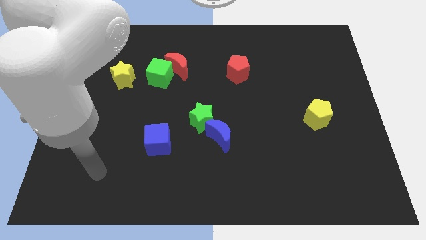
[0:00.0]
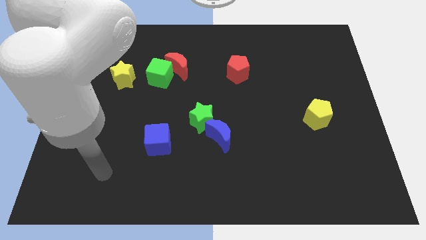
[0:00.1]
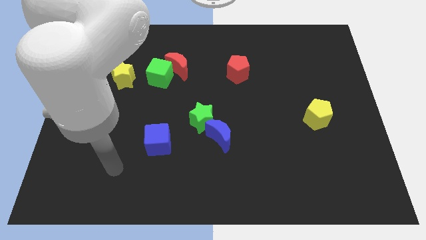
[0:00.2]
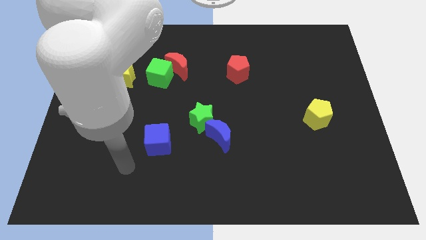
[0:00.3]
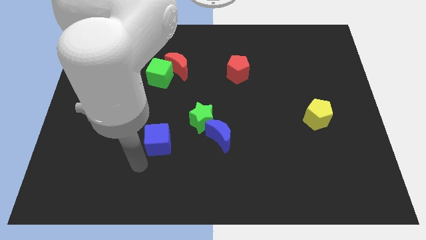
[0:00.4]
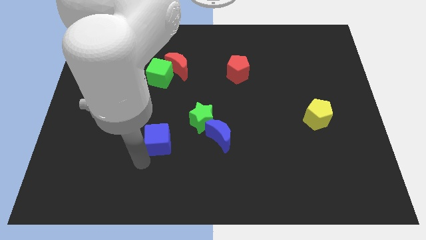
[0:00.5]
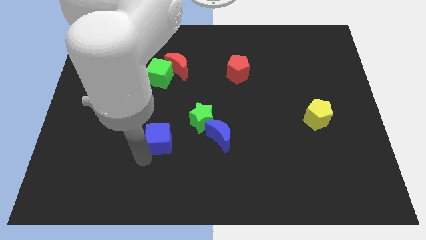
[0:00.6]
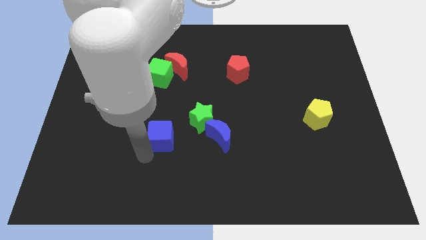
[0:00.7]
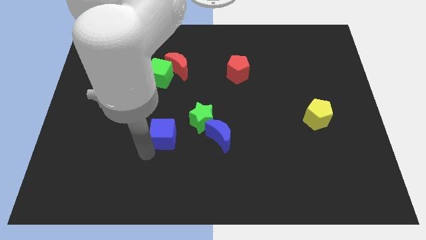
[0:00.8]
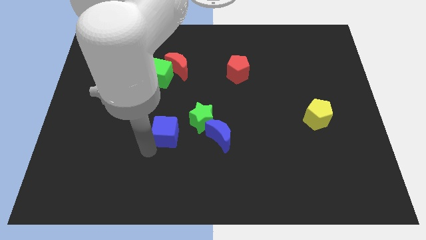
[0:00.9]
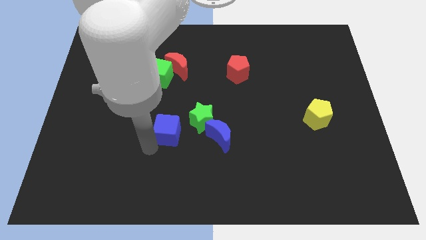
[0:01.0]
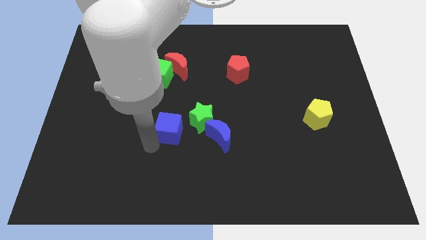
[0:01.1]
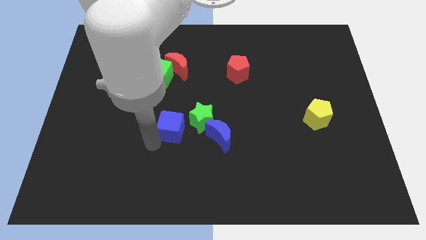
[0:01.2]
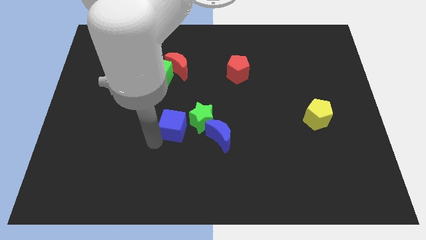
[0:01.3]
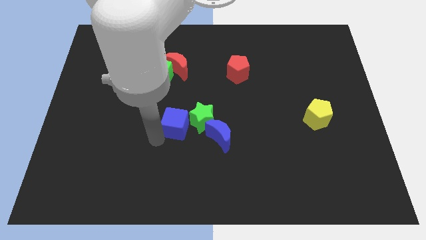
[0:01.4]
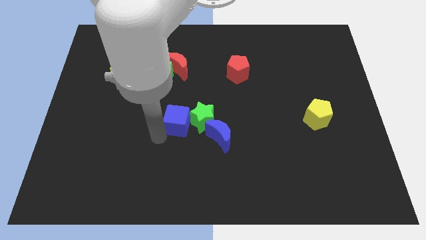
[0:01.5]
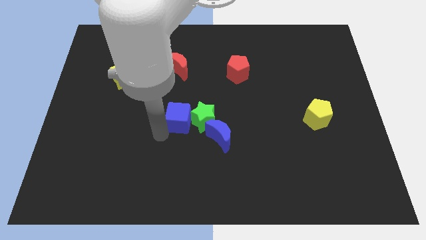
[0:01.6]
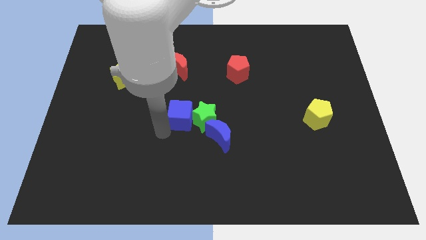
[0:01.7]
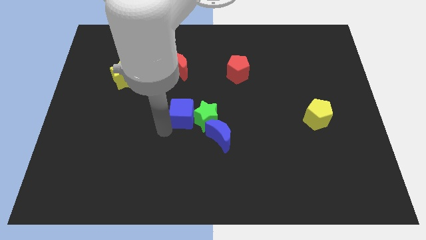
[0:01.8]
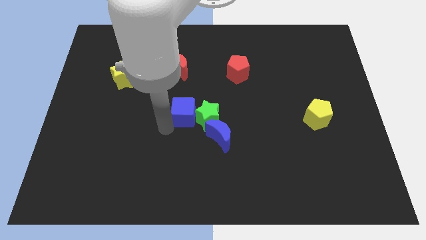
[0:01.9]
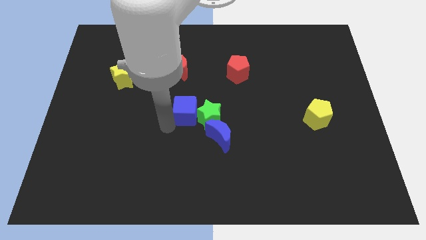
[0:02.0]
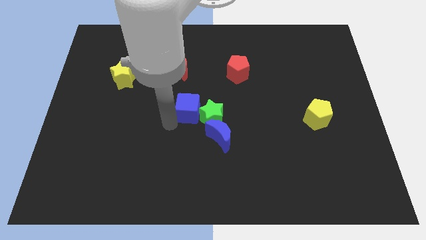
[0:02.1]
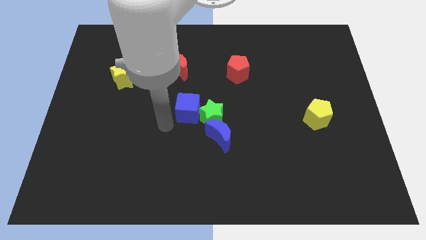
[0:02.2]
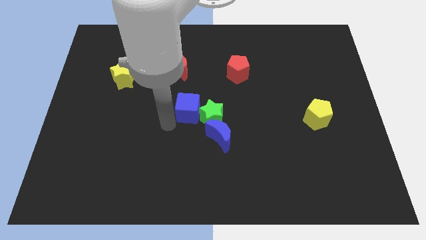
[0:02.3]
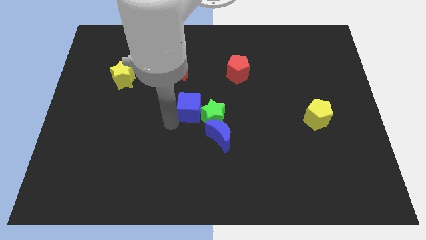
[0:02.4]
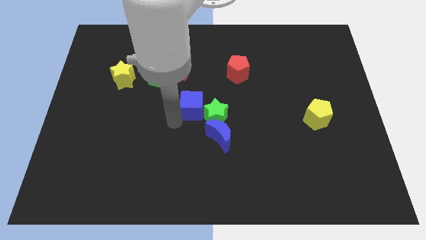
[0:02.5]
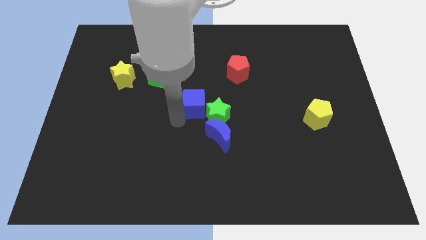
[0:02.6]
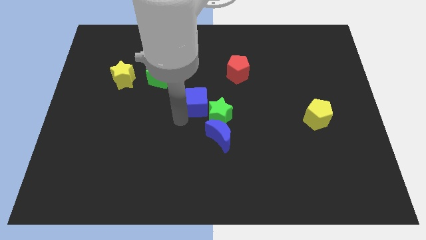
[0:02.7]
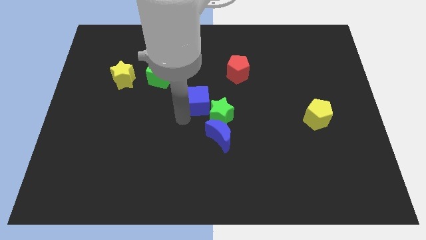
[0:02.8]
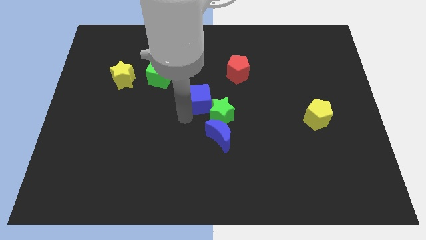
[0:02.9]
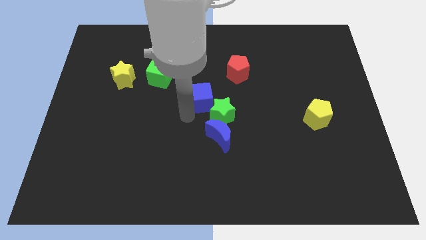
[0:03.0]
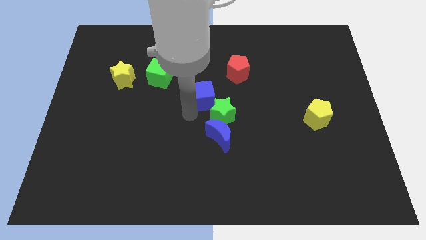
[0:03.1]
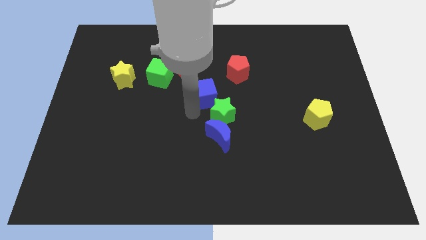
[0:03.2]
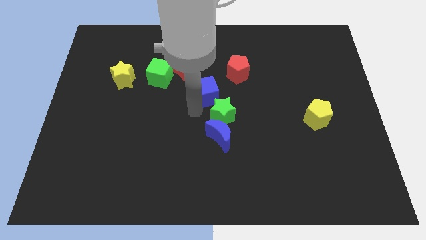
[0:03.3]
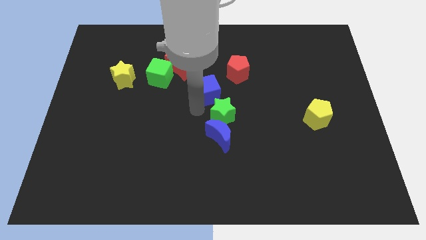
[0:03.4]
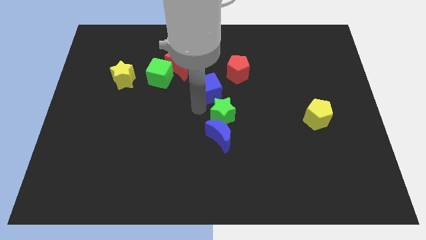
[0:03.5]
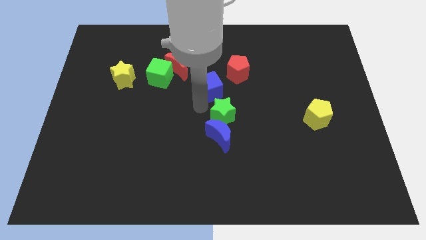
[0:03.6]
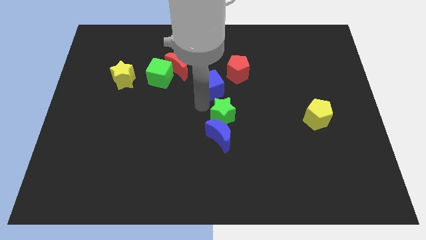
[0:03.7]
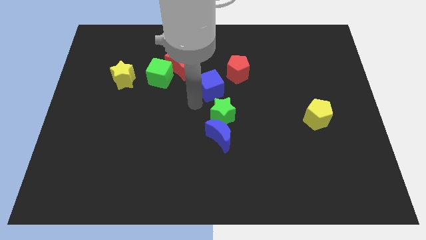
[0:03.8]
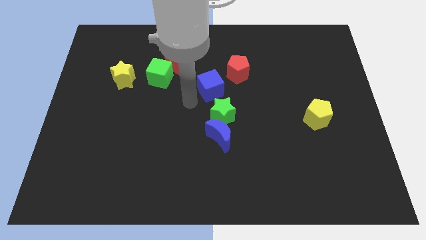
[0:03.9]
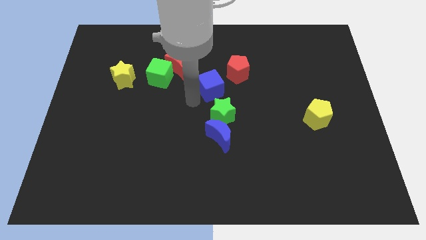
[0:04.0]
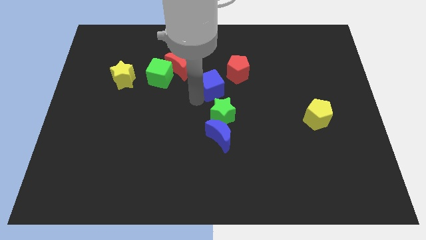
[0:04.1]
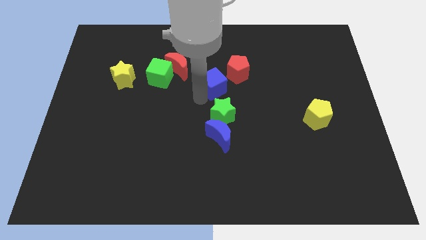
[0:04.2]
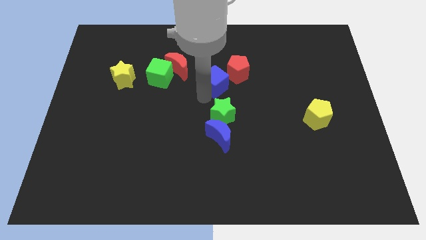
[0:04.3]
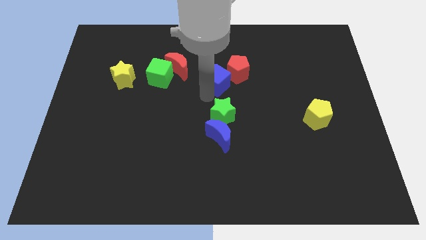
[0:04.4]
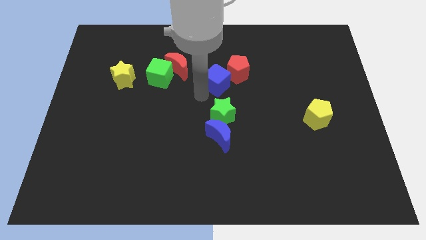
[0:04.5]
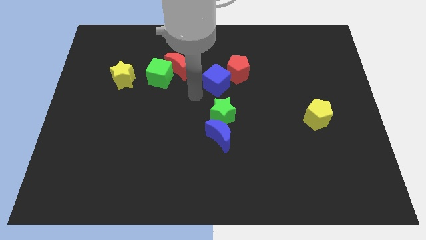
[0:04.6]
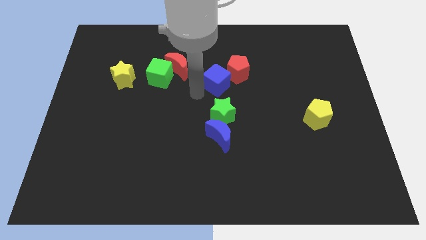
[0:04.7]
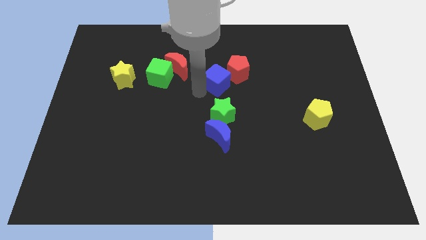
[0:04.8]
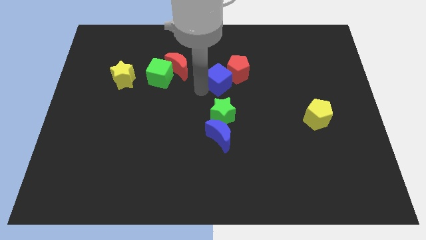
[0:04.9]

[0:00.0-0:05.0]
put the blue cube next to the red pentagon

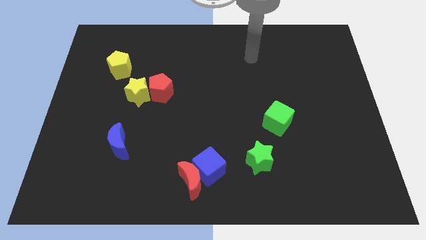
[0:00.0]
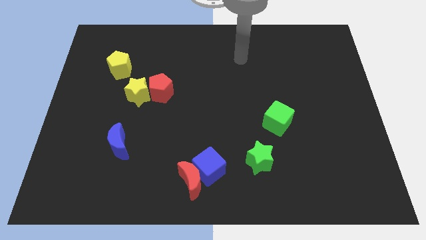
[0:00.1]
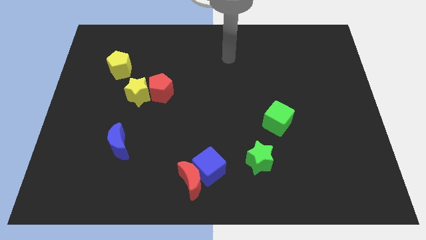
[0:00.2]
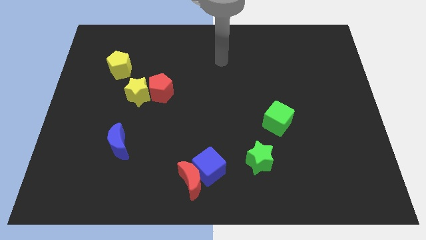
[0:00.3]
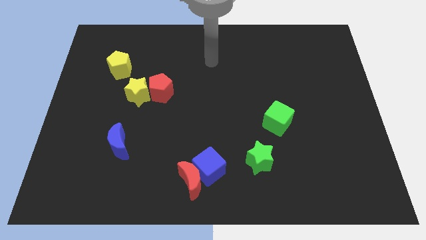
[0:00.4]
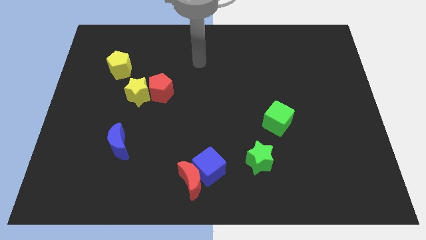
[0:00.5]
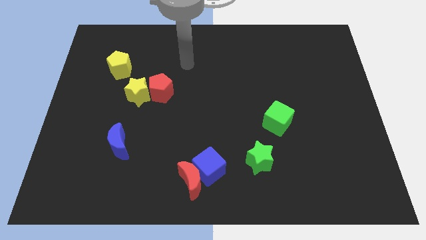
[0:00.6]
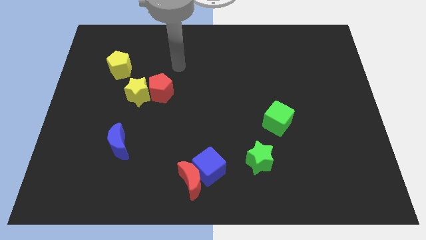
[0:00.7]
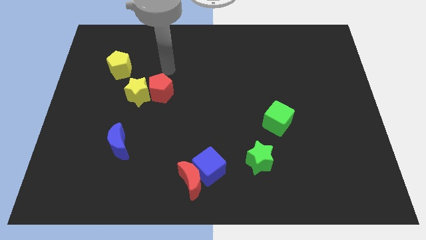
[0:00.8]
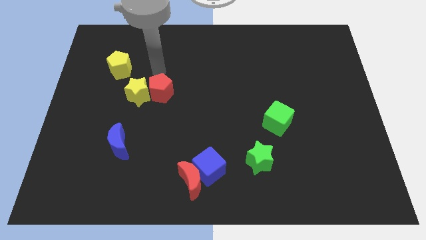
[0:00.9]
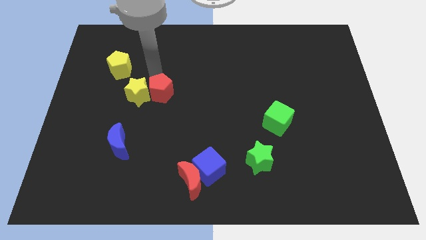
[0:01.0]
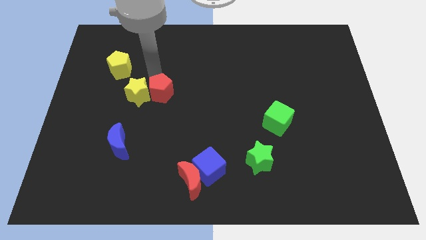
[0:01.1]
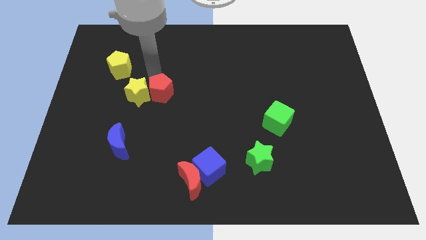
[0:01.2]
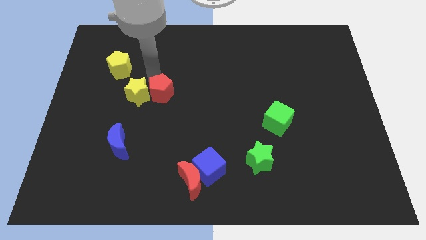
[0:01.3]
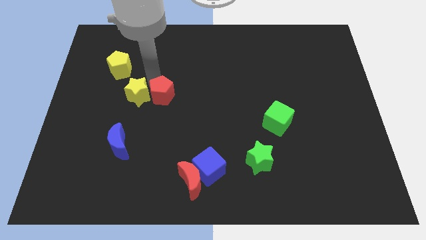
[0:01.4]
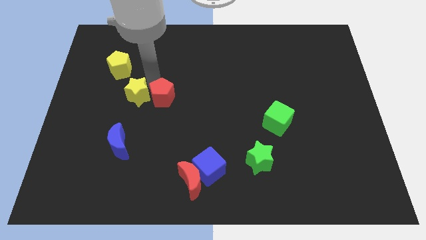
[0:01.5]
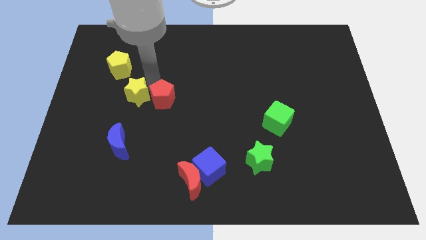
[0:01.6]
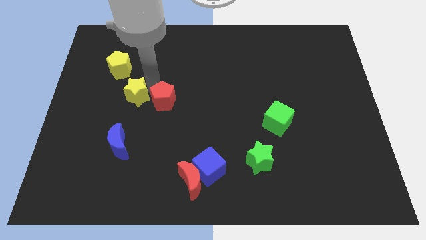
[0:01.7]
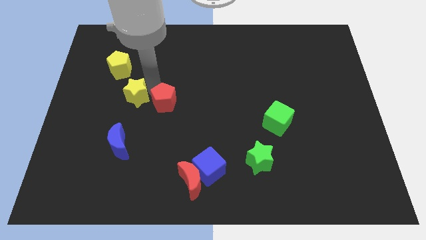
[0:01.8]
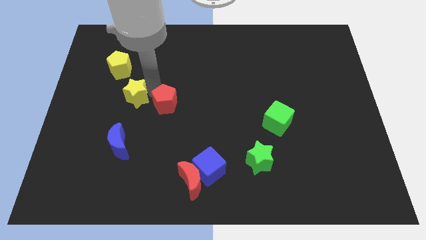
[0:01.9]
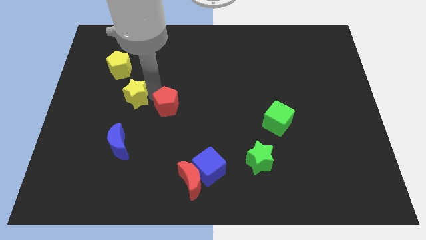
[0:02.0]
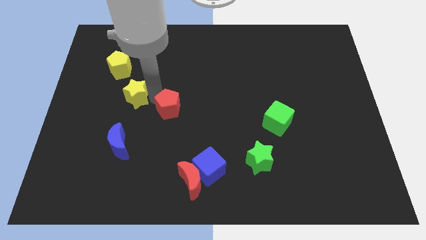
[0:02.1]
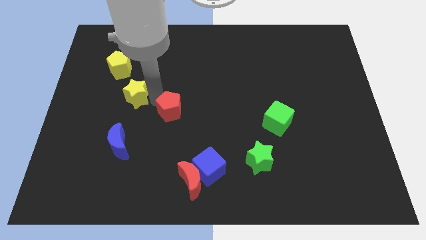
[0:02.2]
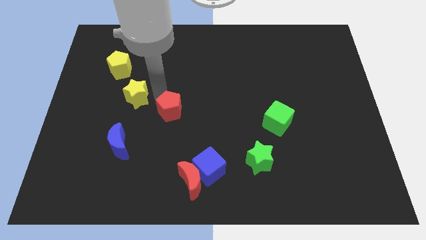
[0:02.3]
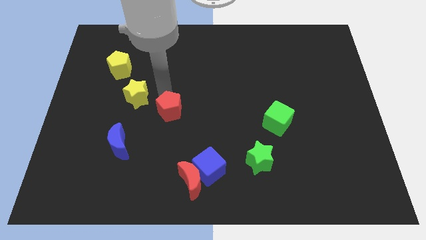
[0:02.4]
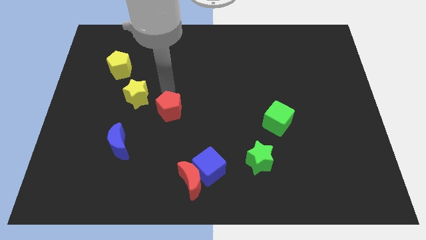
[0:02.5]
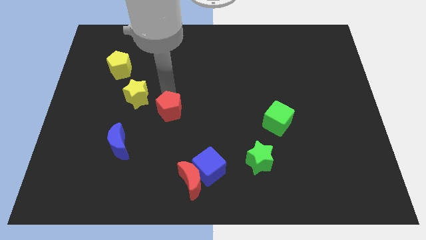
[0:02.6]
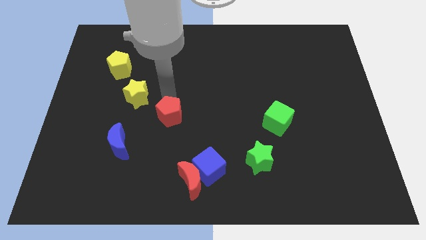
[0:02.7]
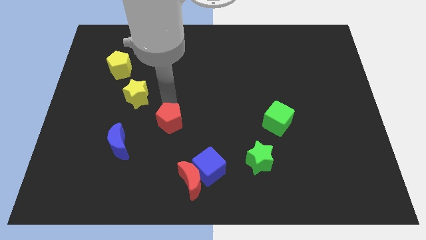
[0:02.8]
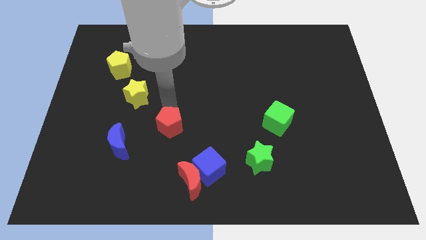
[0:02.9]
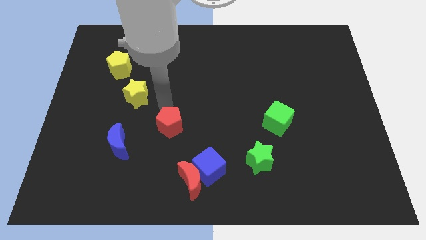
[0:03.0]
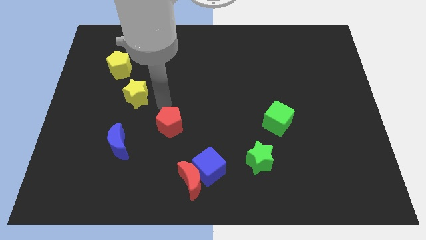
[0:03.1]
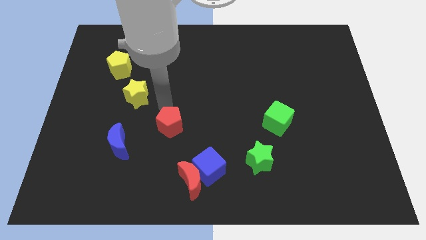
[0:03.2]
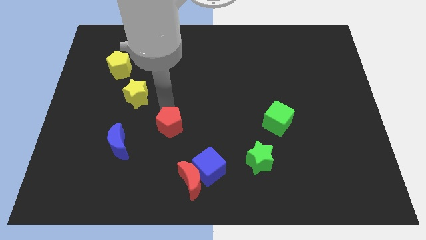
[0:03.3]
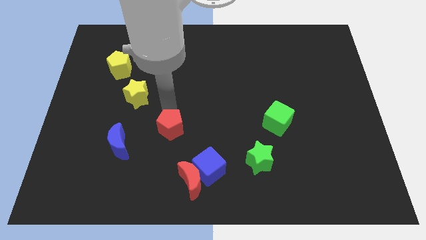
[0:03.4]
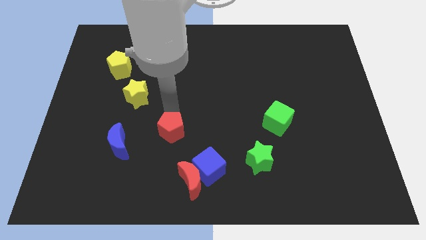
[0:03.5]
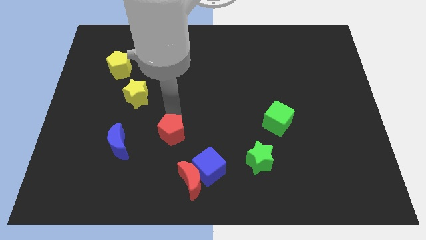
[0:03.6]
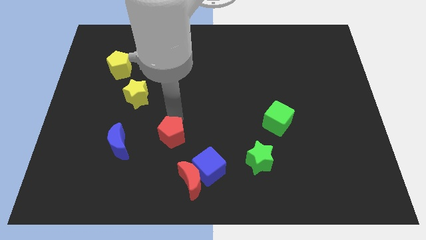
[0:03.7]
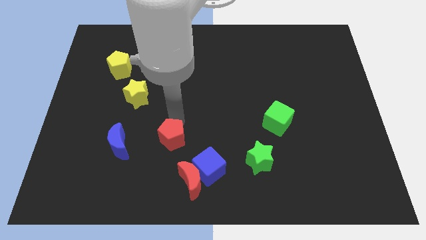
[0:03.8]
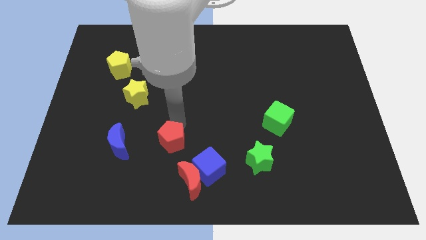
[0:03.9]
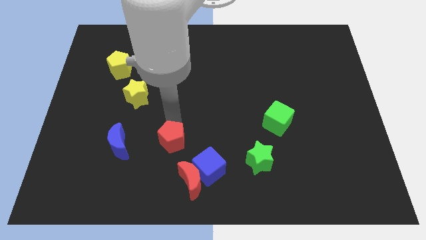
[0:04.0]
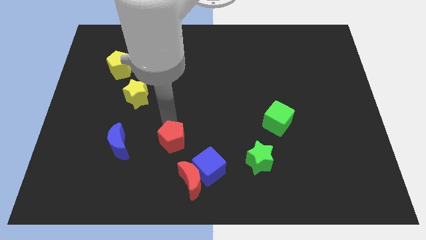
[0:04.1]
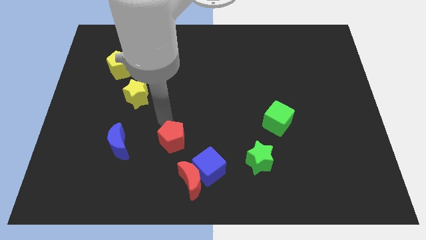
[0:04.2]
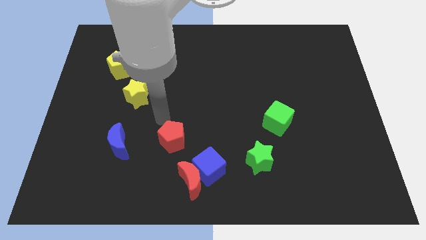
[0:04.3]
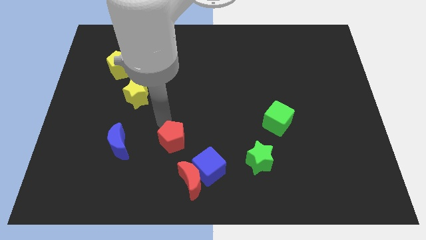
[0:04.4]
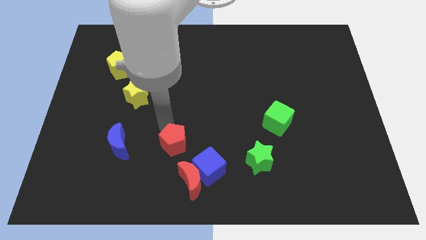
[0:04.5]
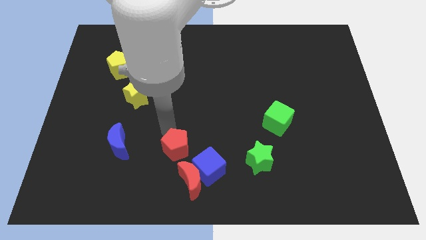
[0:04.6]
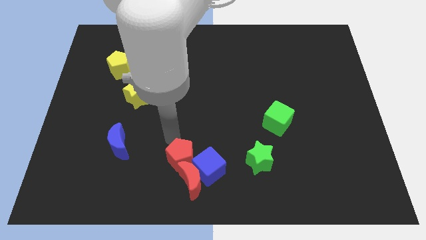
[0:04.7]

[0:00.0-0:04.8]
move the red pentagon to the red moon
